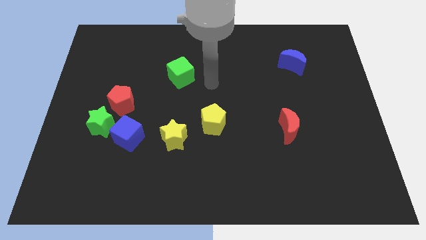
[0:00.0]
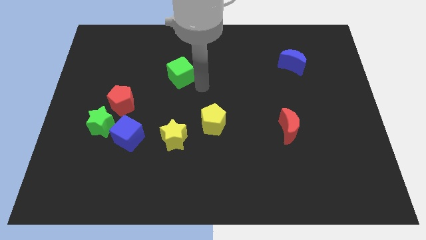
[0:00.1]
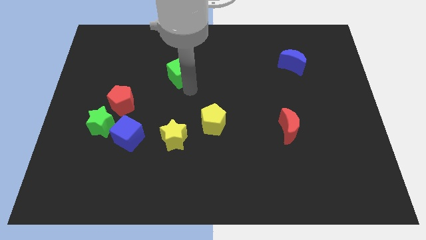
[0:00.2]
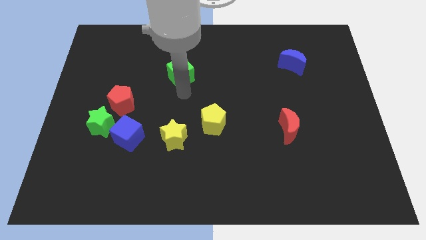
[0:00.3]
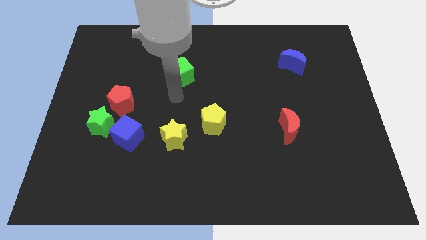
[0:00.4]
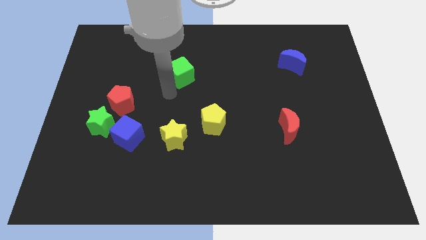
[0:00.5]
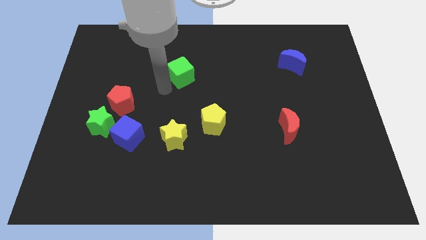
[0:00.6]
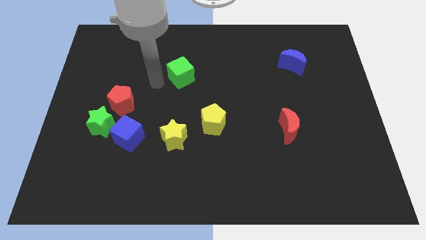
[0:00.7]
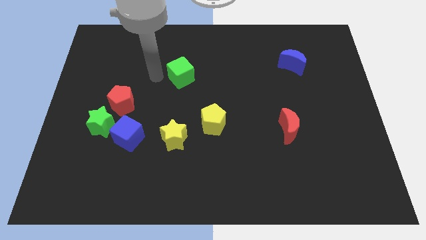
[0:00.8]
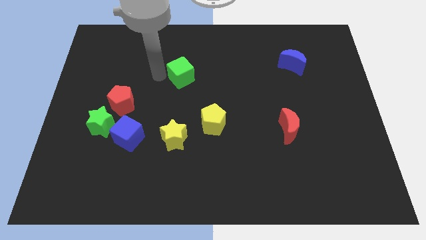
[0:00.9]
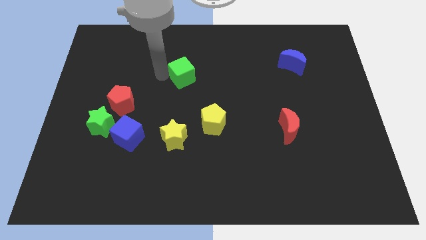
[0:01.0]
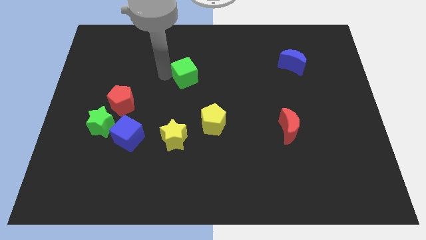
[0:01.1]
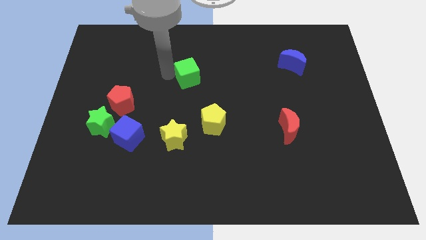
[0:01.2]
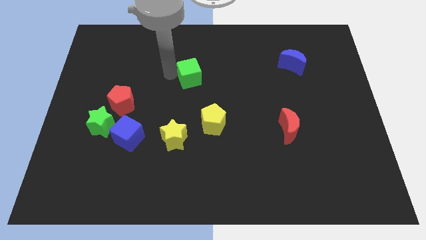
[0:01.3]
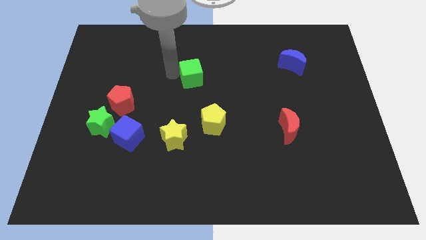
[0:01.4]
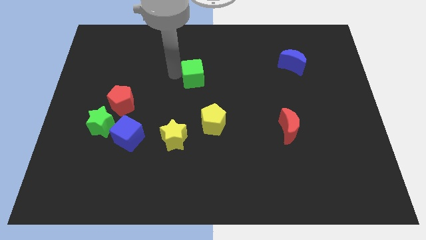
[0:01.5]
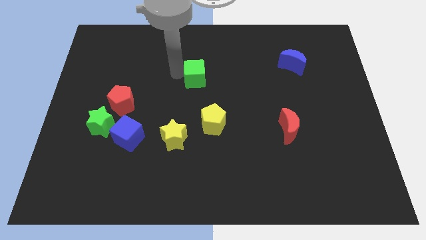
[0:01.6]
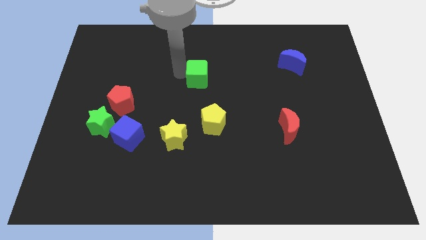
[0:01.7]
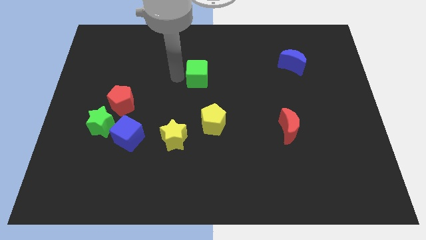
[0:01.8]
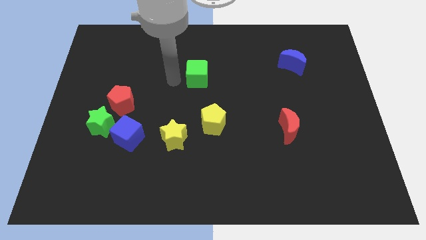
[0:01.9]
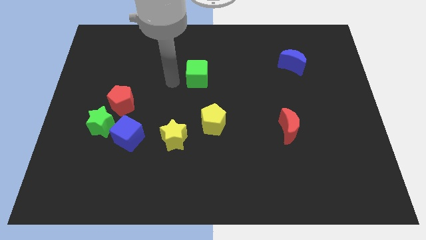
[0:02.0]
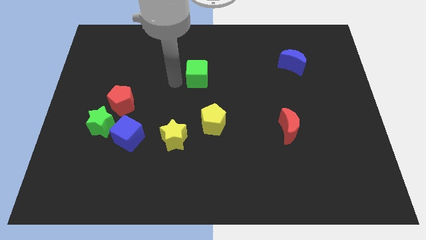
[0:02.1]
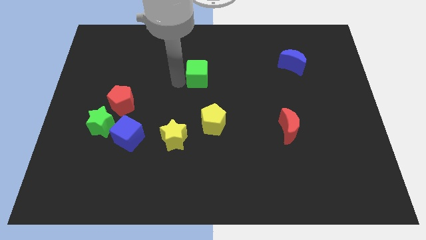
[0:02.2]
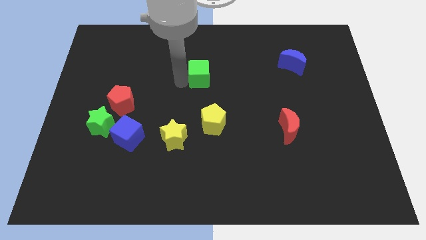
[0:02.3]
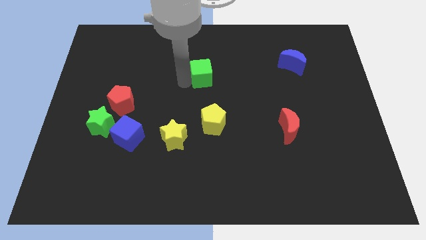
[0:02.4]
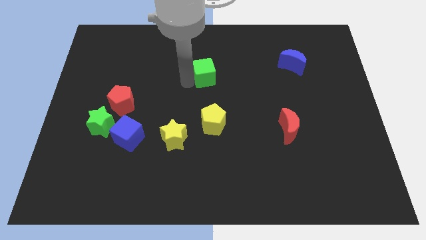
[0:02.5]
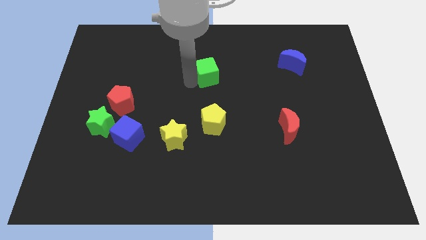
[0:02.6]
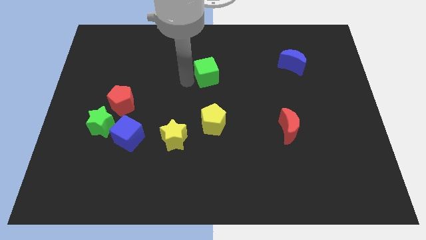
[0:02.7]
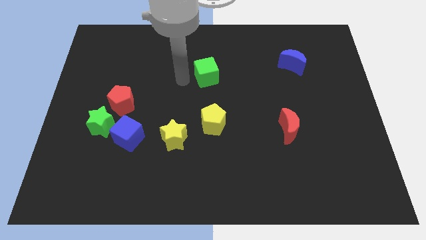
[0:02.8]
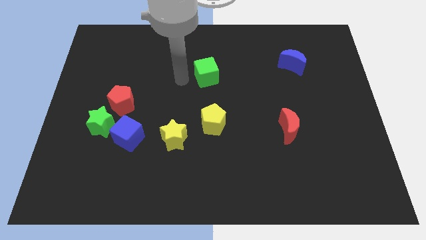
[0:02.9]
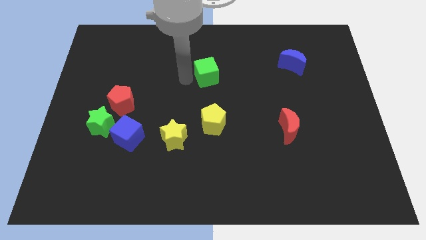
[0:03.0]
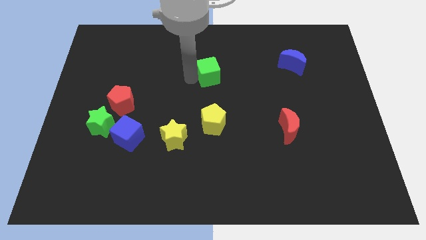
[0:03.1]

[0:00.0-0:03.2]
slightly move the green cube to the right

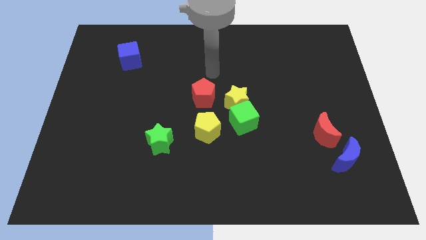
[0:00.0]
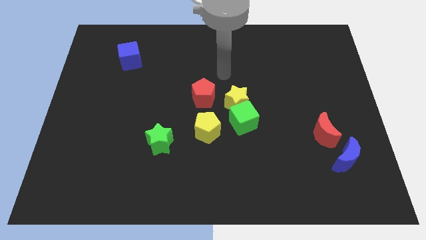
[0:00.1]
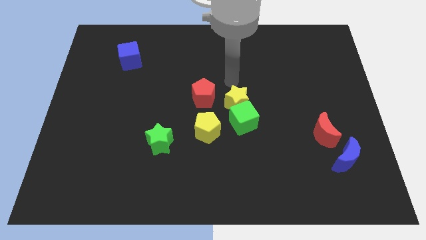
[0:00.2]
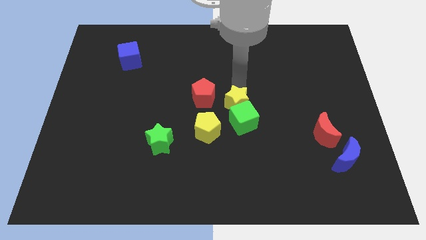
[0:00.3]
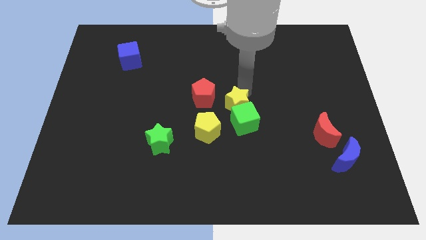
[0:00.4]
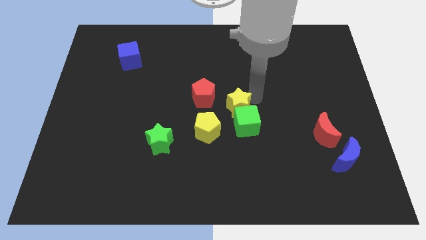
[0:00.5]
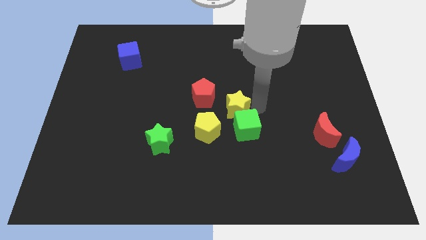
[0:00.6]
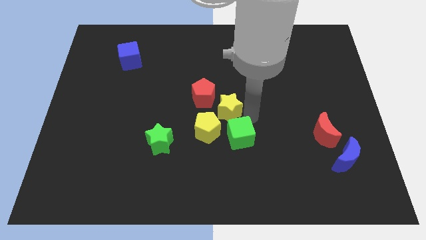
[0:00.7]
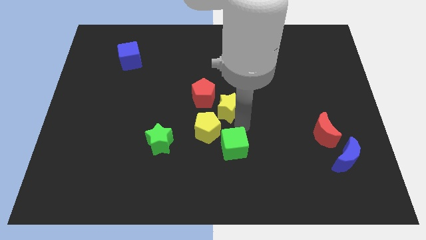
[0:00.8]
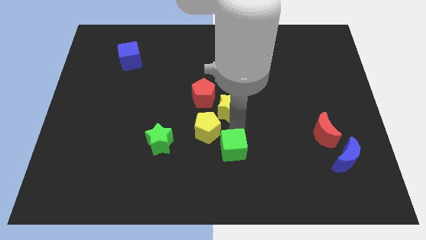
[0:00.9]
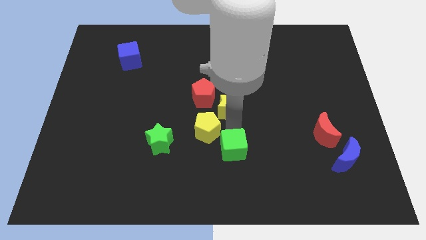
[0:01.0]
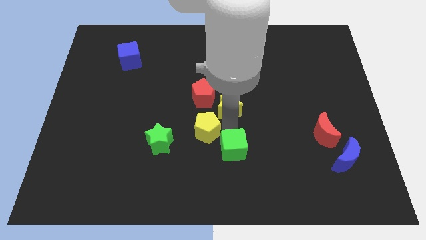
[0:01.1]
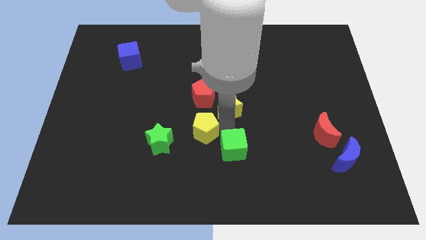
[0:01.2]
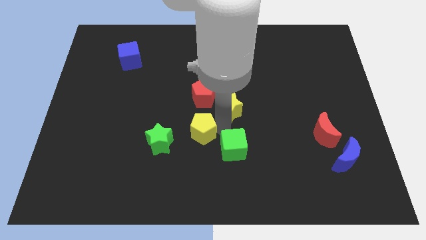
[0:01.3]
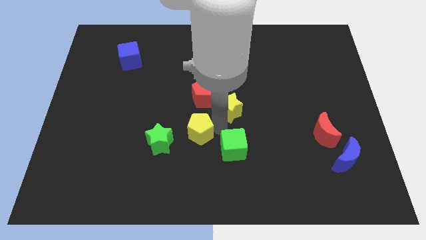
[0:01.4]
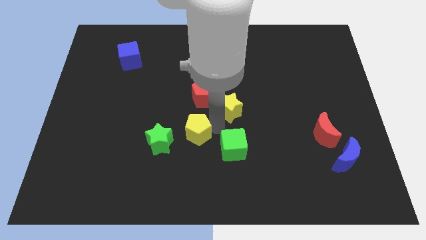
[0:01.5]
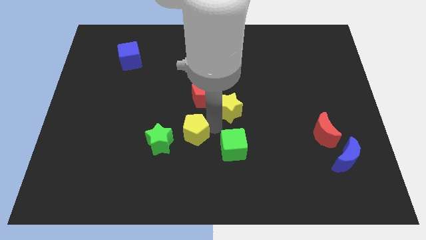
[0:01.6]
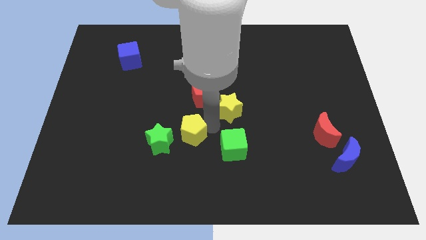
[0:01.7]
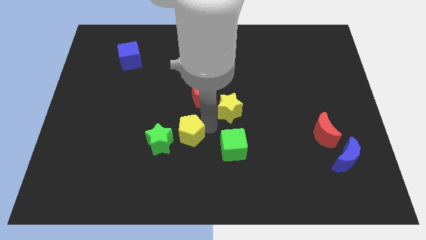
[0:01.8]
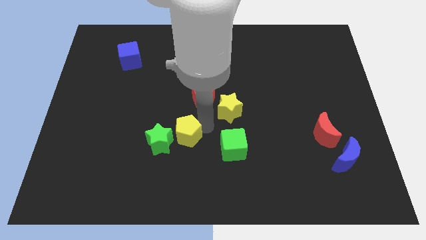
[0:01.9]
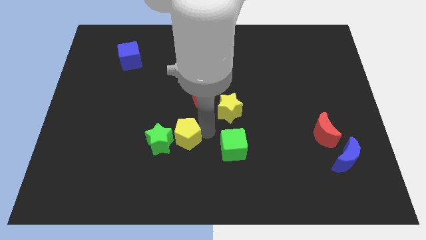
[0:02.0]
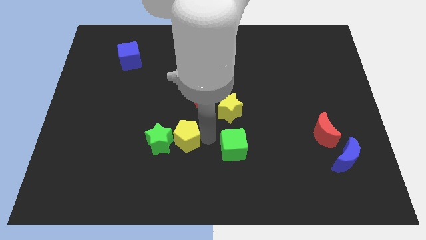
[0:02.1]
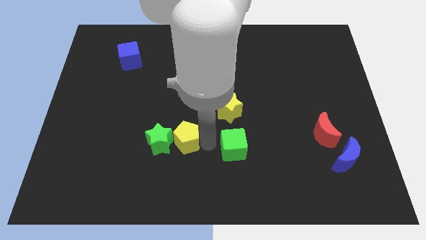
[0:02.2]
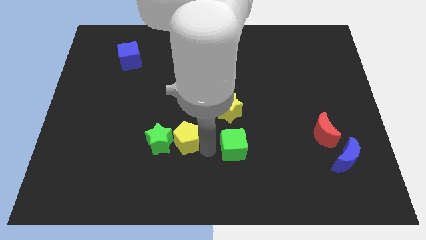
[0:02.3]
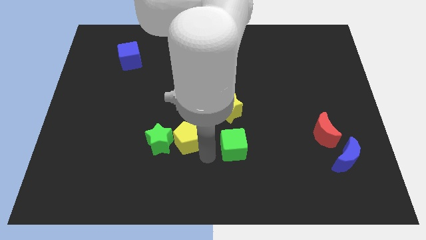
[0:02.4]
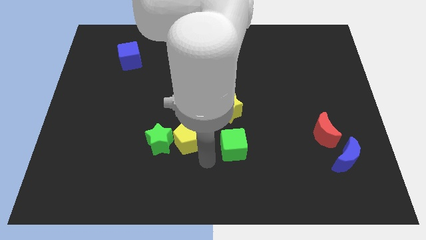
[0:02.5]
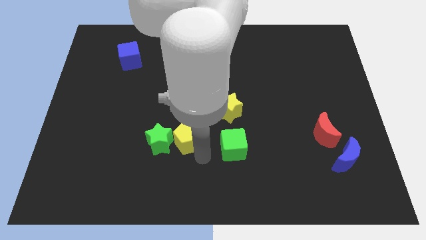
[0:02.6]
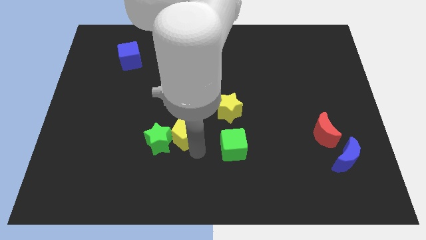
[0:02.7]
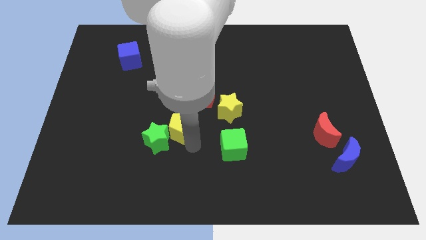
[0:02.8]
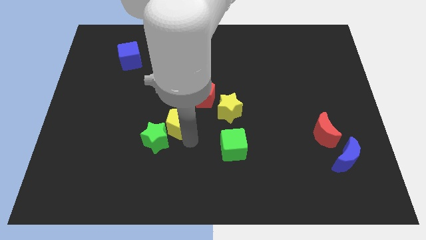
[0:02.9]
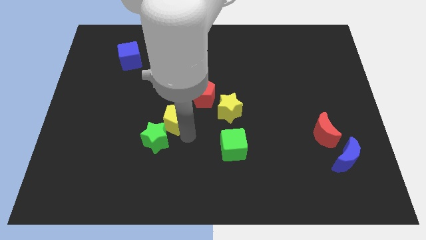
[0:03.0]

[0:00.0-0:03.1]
slightly move the yellow pentagon to the left

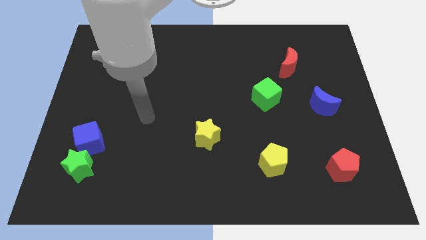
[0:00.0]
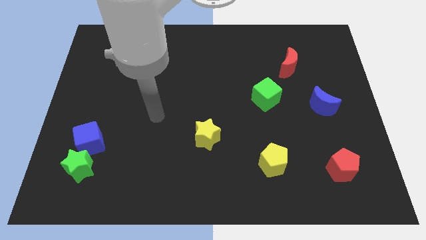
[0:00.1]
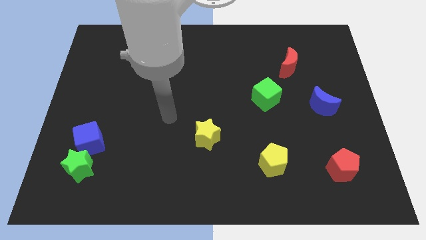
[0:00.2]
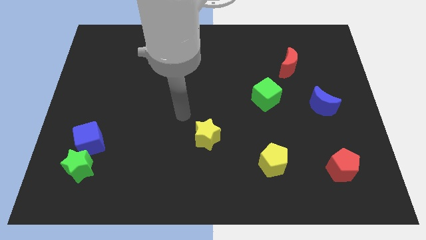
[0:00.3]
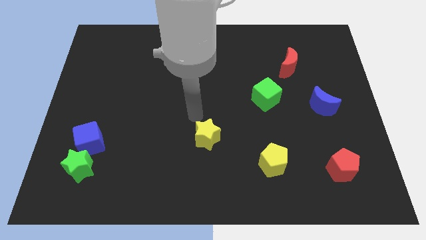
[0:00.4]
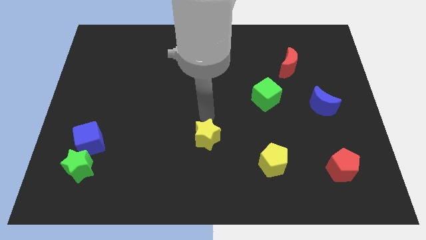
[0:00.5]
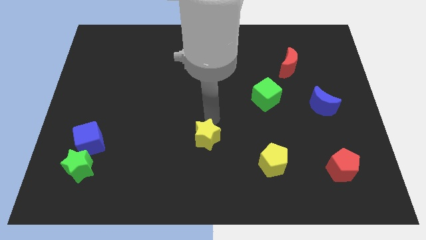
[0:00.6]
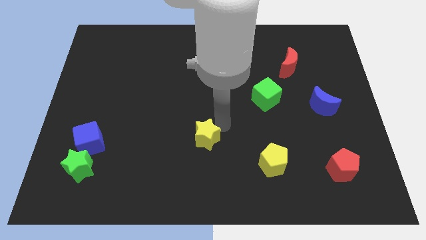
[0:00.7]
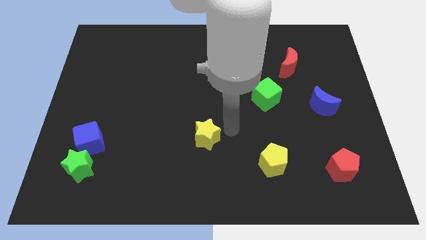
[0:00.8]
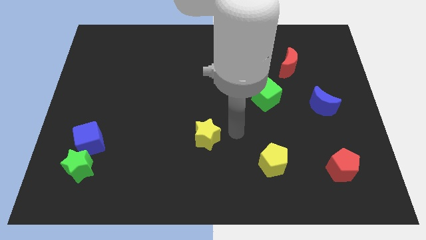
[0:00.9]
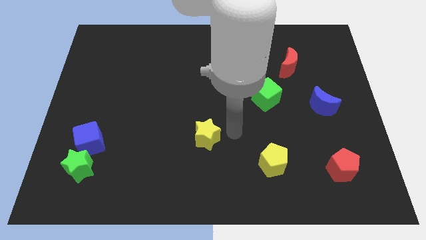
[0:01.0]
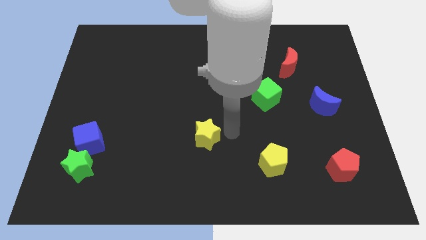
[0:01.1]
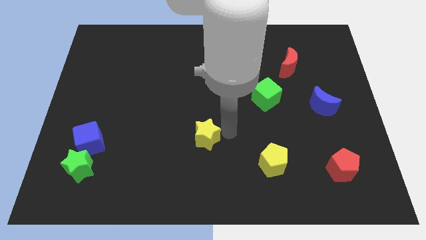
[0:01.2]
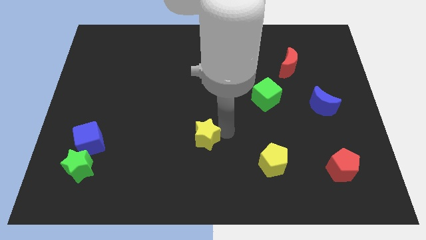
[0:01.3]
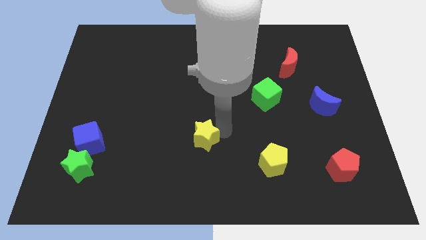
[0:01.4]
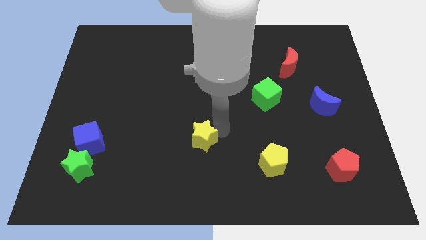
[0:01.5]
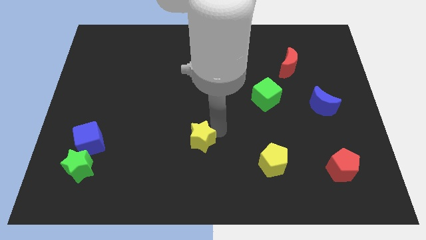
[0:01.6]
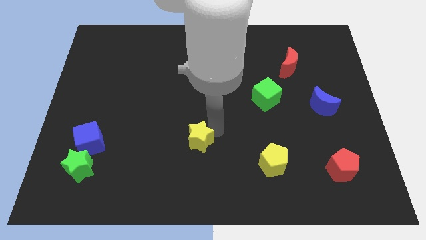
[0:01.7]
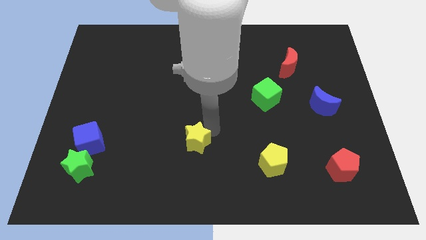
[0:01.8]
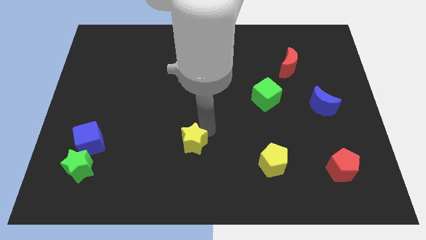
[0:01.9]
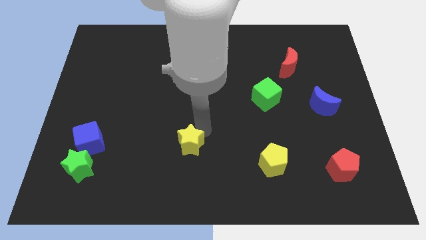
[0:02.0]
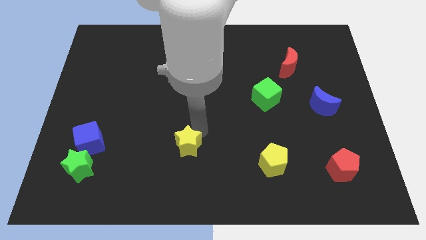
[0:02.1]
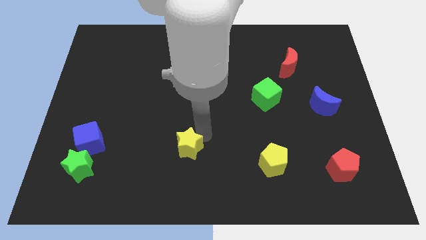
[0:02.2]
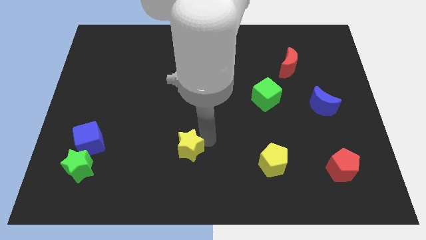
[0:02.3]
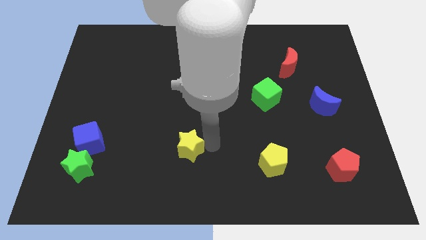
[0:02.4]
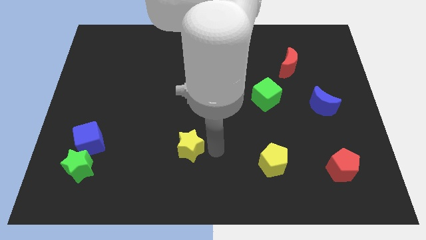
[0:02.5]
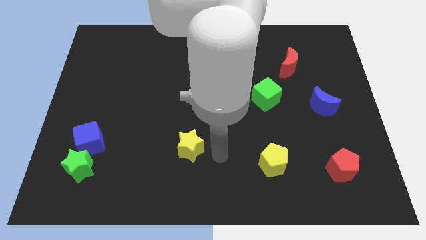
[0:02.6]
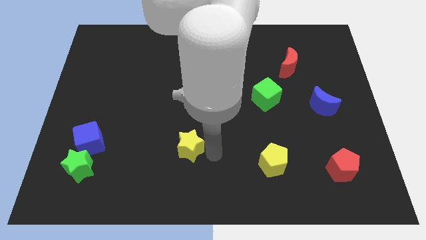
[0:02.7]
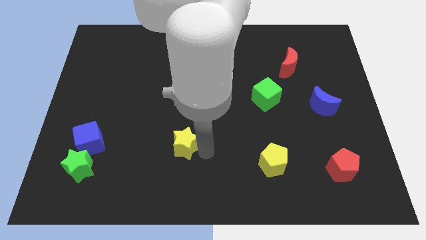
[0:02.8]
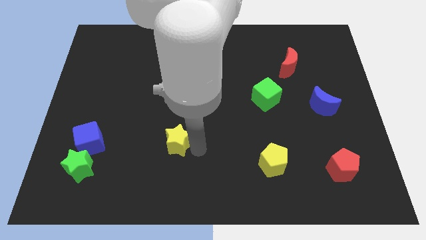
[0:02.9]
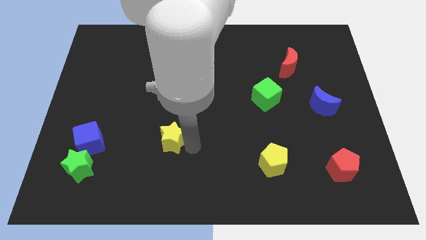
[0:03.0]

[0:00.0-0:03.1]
move the yellow star left somewhat
